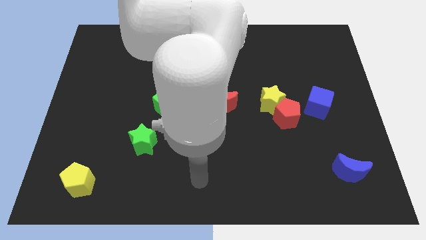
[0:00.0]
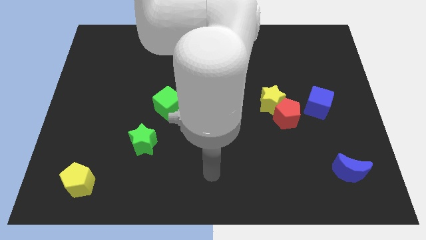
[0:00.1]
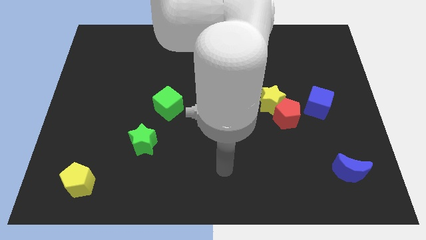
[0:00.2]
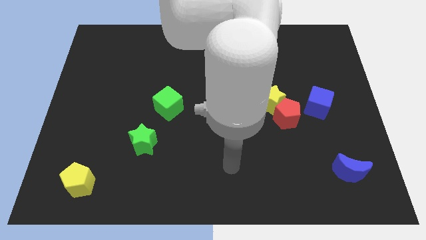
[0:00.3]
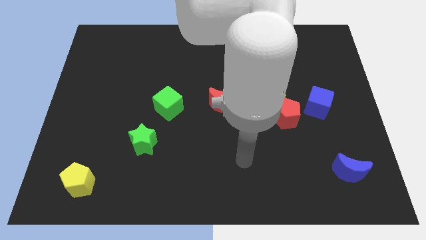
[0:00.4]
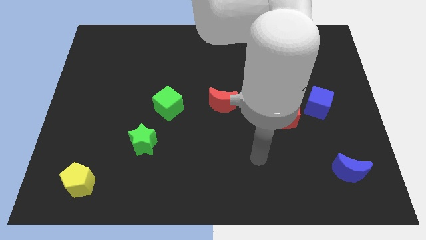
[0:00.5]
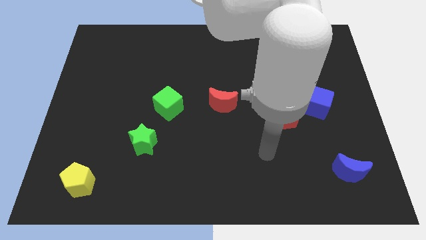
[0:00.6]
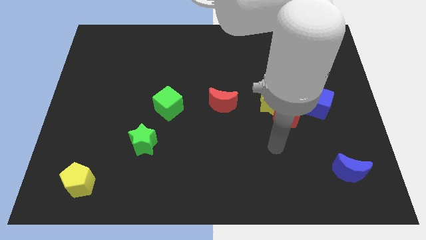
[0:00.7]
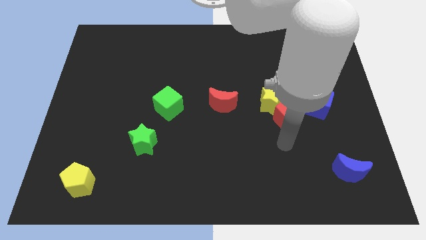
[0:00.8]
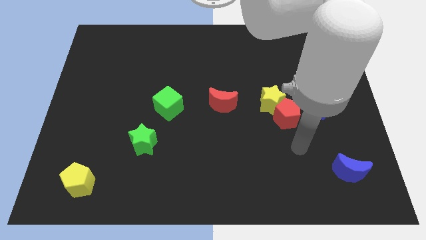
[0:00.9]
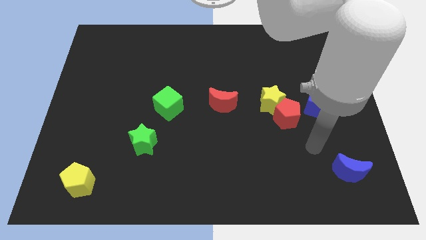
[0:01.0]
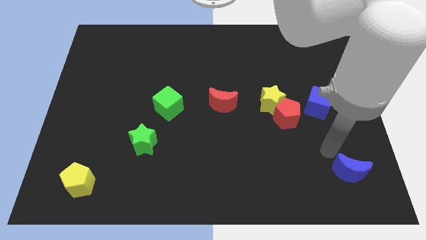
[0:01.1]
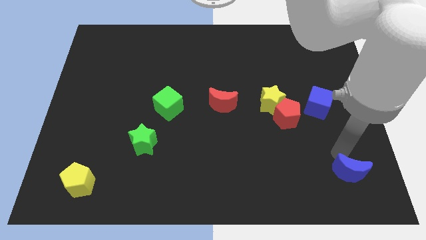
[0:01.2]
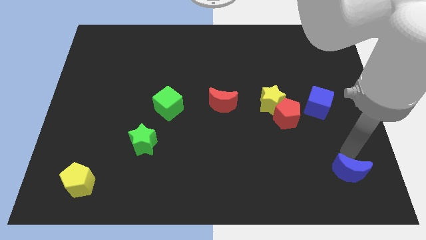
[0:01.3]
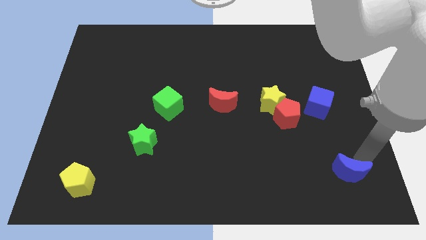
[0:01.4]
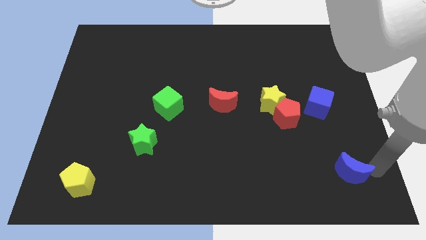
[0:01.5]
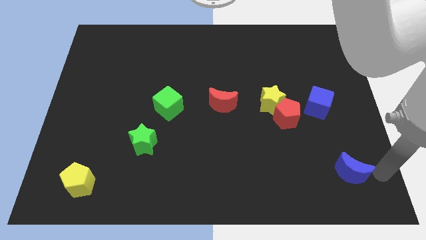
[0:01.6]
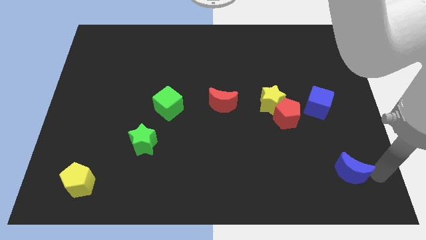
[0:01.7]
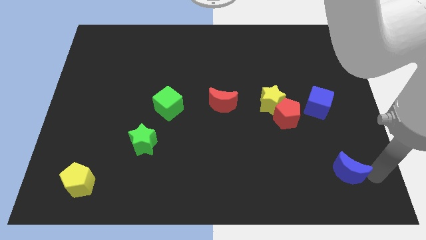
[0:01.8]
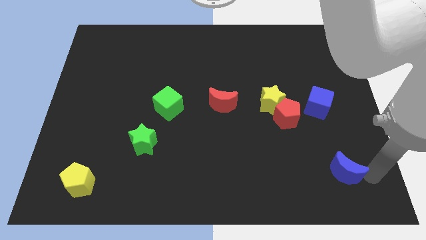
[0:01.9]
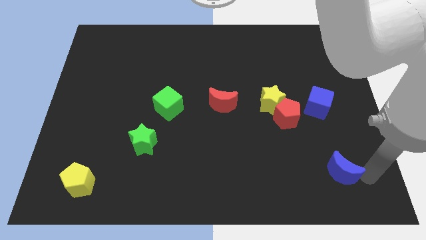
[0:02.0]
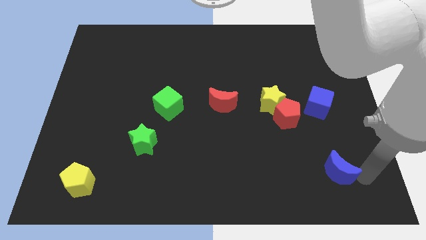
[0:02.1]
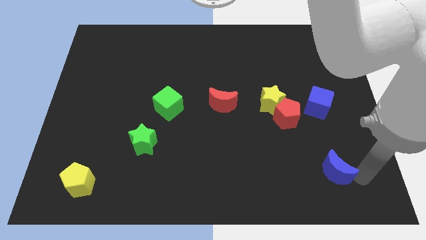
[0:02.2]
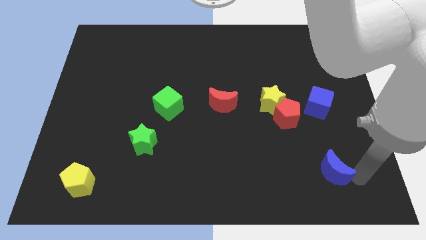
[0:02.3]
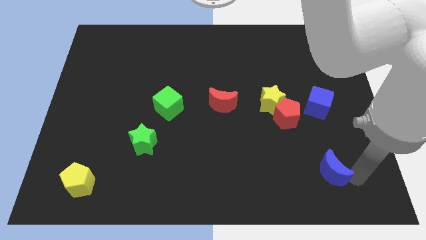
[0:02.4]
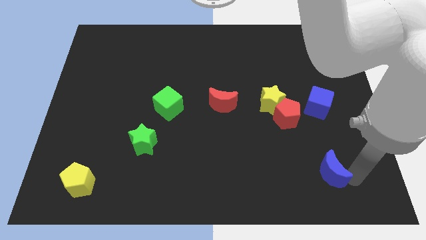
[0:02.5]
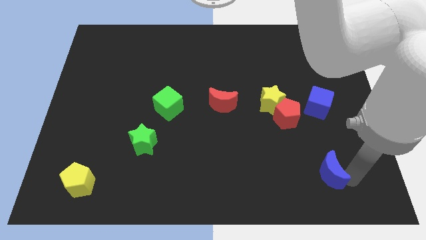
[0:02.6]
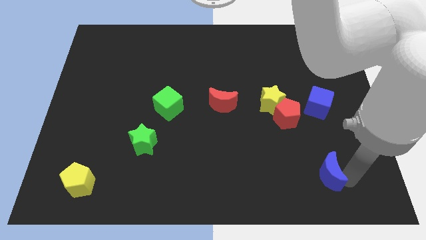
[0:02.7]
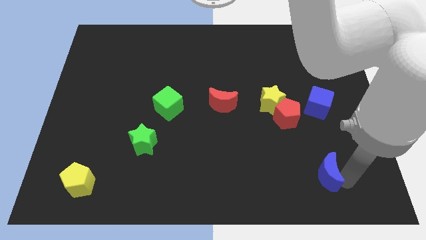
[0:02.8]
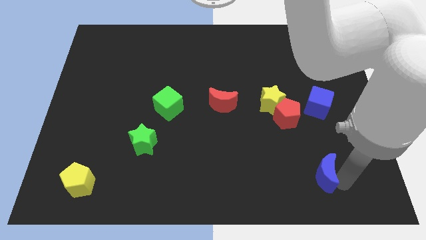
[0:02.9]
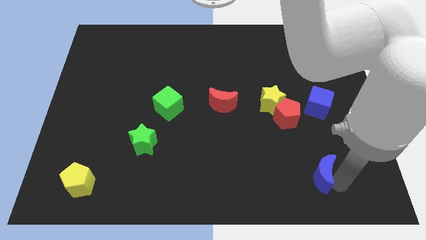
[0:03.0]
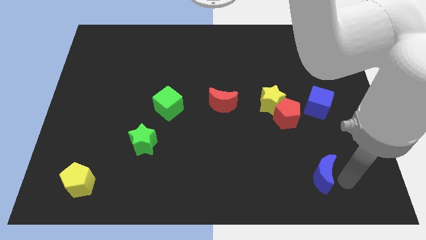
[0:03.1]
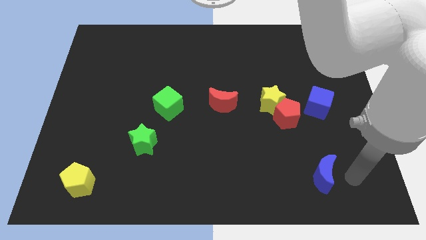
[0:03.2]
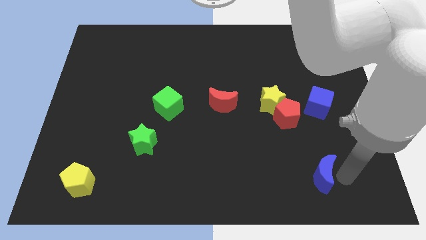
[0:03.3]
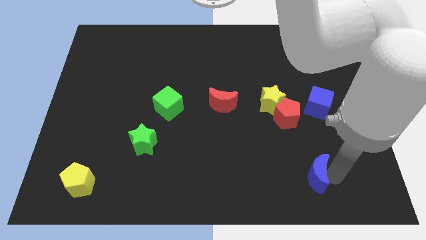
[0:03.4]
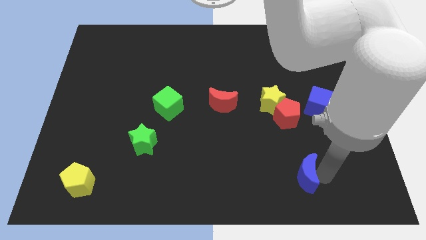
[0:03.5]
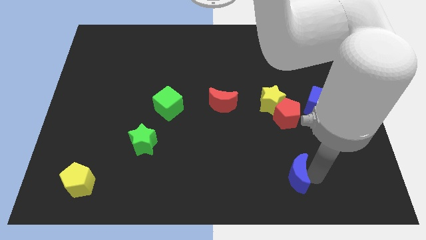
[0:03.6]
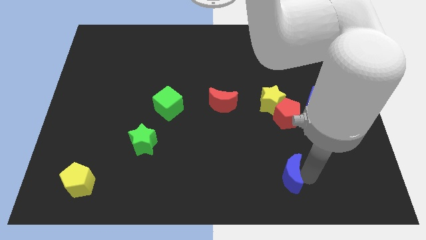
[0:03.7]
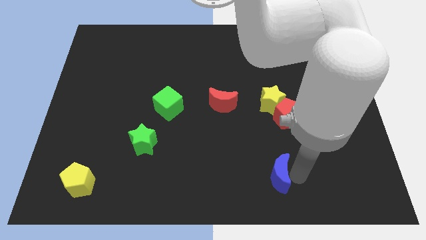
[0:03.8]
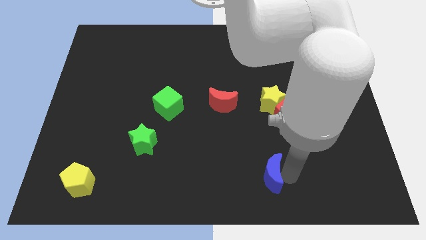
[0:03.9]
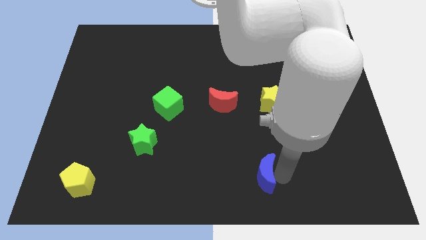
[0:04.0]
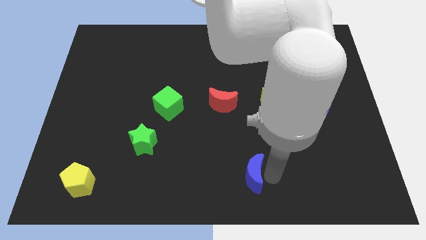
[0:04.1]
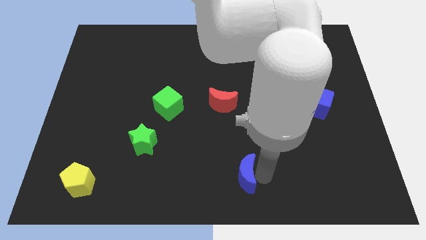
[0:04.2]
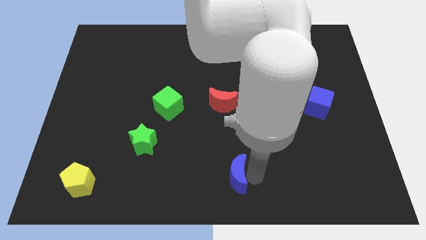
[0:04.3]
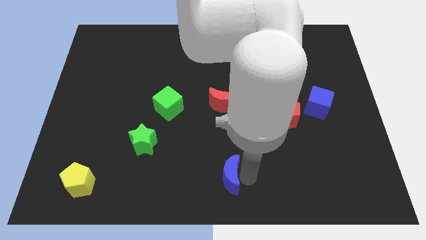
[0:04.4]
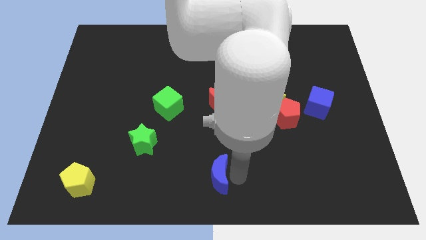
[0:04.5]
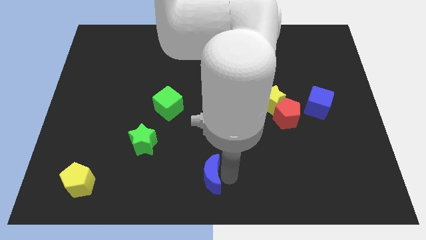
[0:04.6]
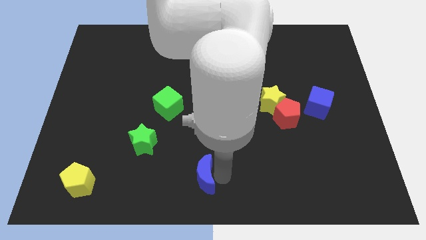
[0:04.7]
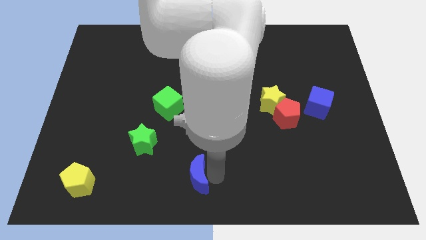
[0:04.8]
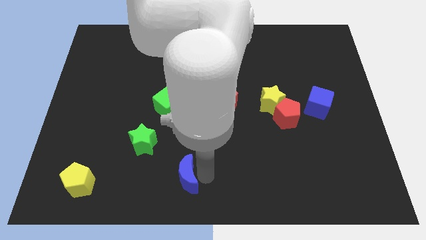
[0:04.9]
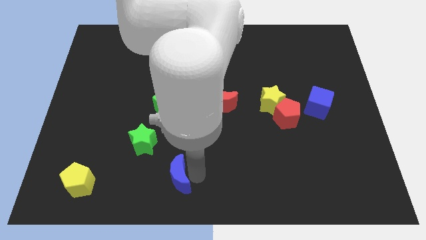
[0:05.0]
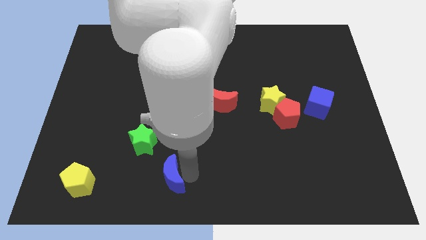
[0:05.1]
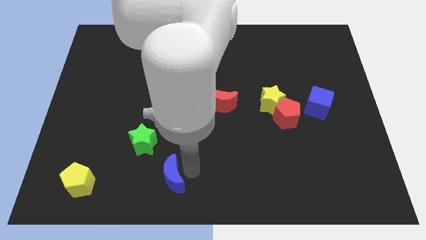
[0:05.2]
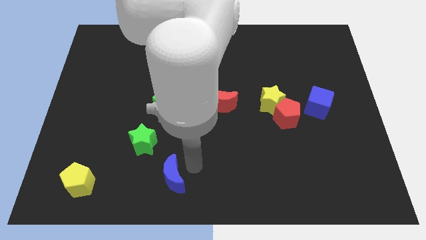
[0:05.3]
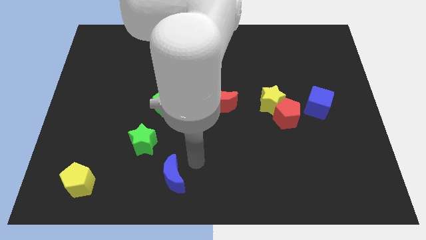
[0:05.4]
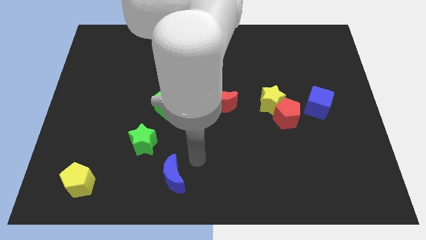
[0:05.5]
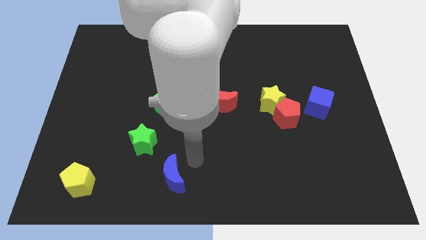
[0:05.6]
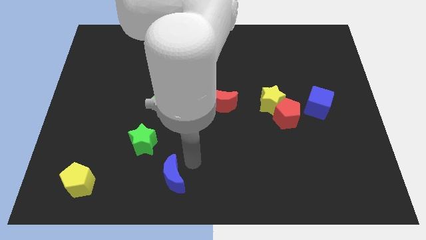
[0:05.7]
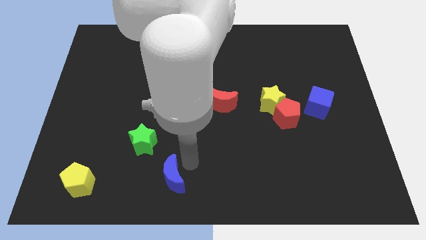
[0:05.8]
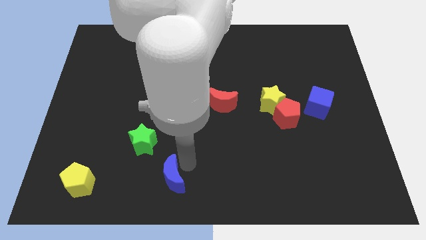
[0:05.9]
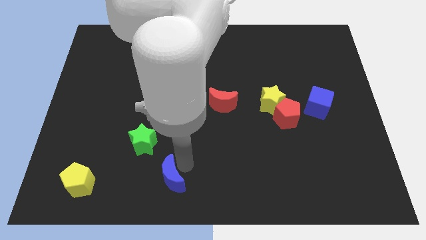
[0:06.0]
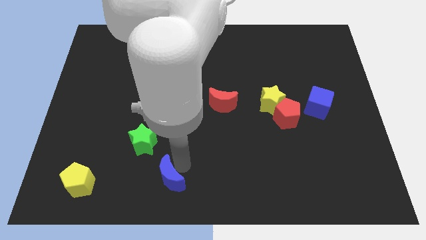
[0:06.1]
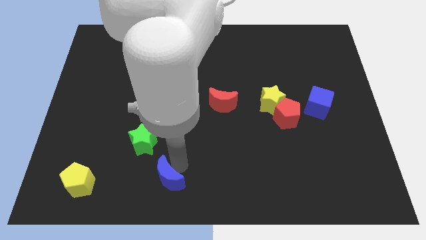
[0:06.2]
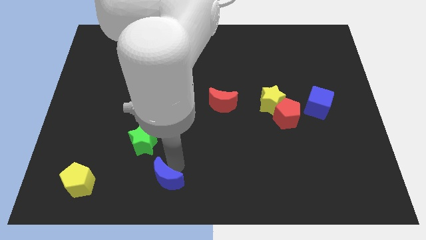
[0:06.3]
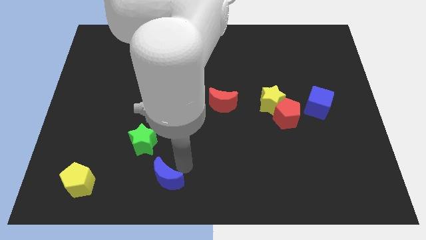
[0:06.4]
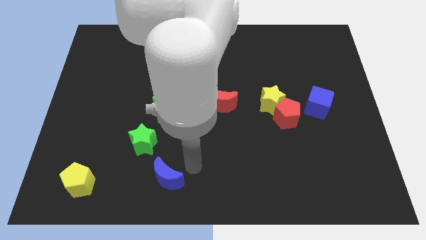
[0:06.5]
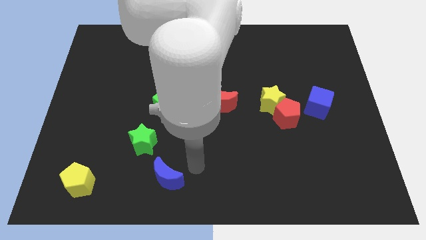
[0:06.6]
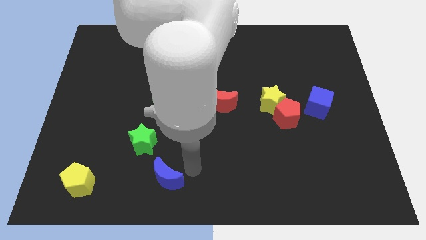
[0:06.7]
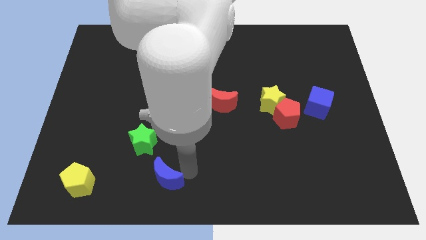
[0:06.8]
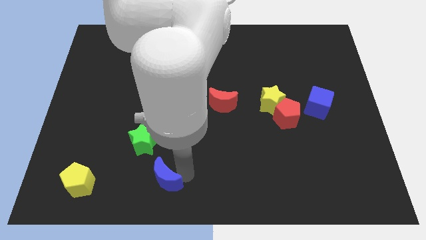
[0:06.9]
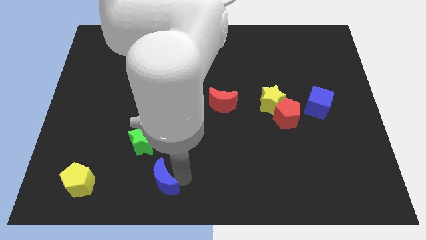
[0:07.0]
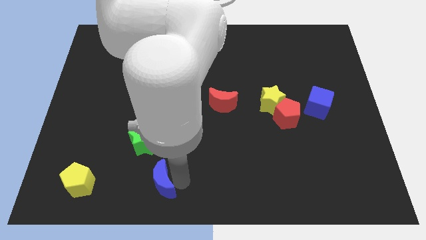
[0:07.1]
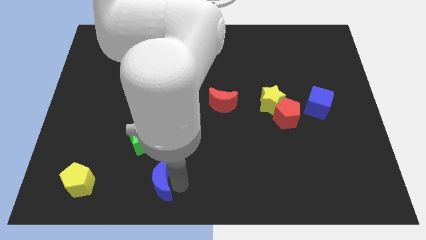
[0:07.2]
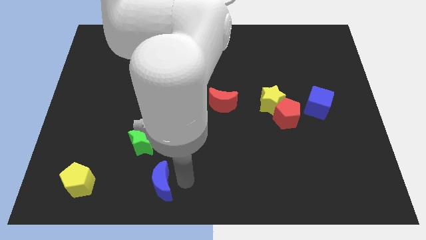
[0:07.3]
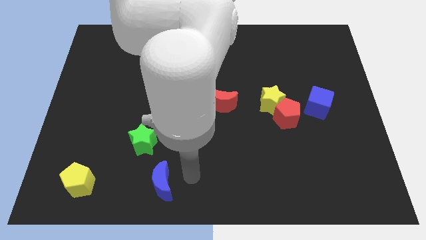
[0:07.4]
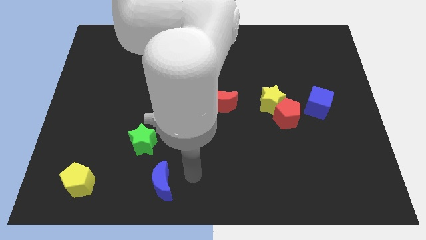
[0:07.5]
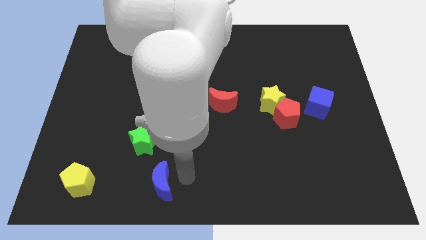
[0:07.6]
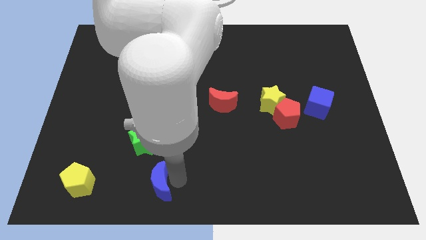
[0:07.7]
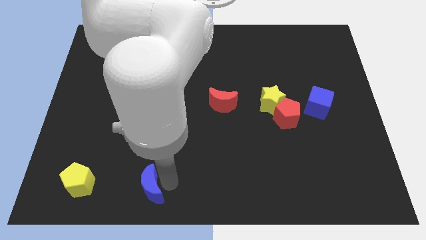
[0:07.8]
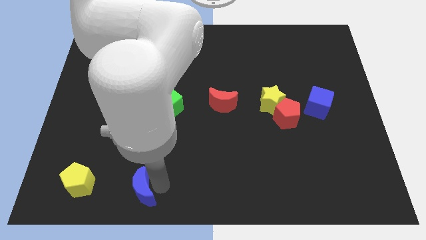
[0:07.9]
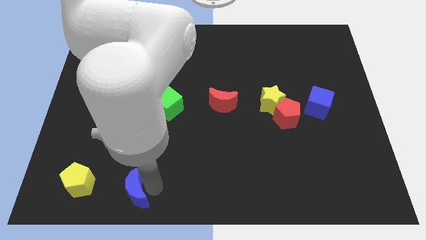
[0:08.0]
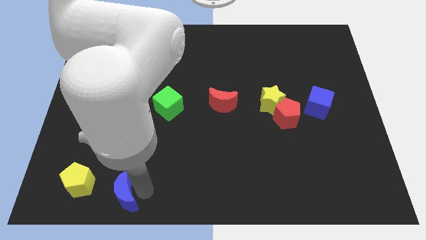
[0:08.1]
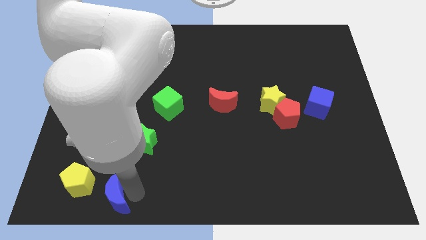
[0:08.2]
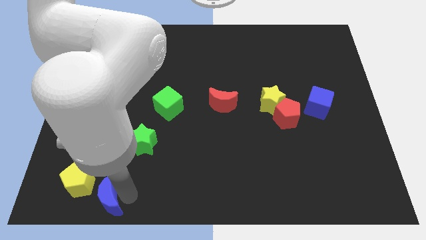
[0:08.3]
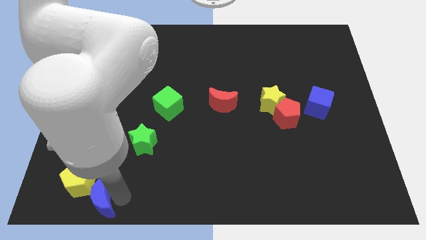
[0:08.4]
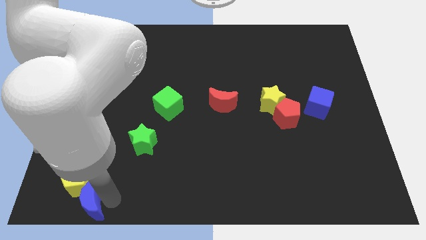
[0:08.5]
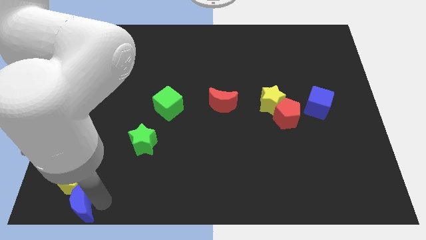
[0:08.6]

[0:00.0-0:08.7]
move the blue moon to the bottom left corner
